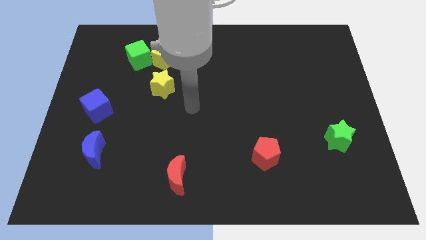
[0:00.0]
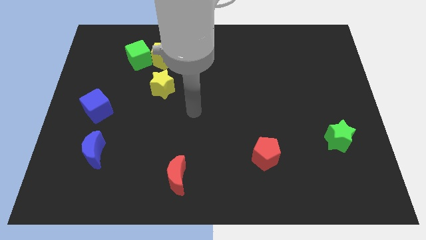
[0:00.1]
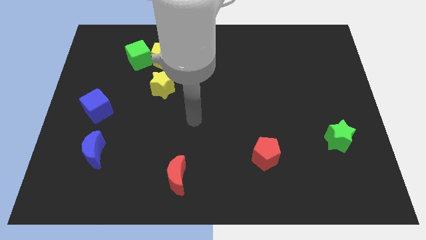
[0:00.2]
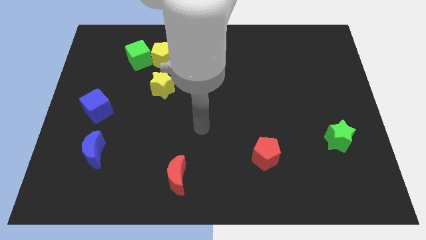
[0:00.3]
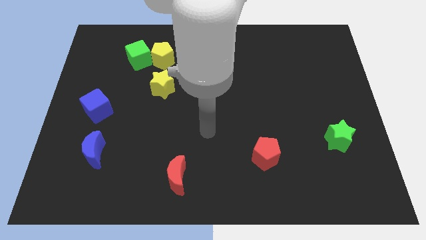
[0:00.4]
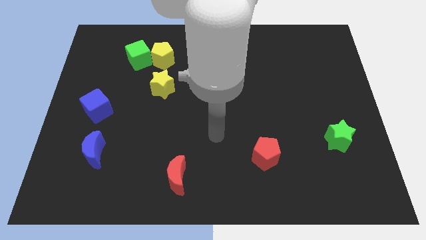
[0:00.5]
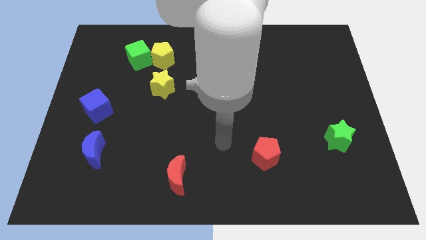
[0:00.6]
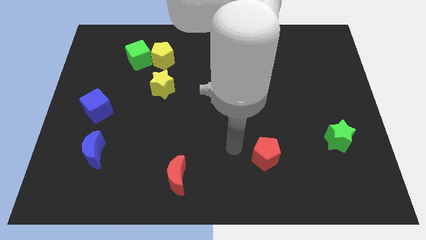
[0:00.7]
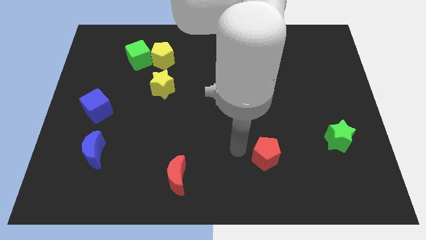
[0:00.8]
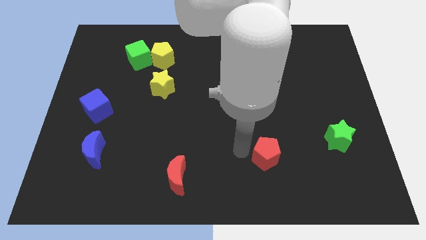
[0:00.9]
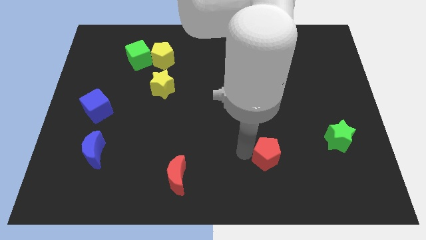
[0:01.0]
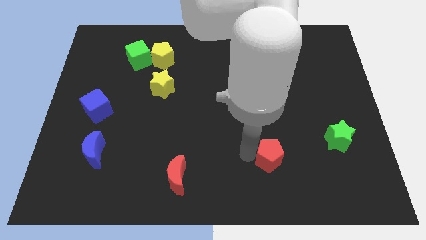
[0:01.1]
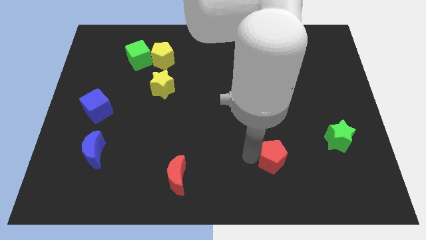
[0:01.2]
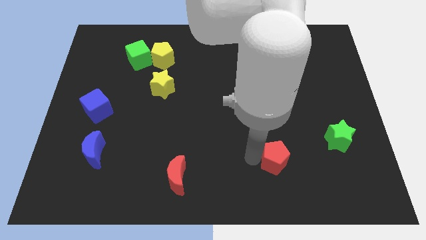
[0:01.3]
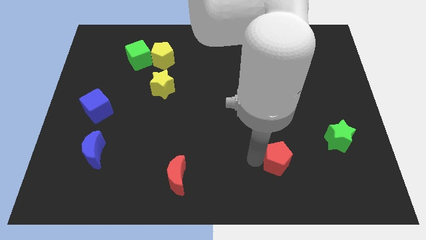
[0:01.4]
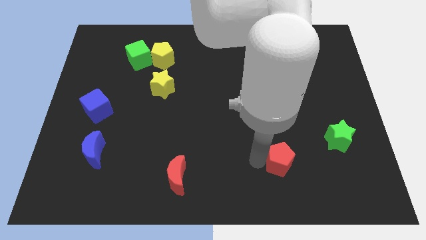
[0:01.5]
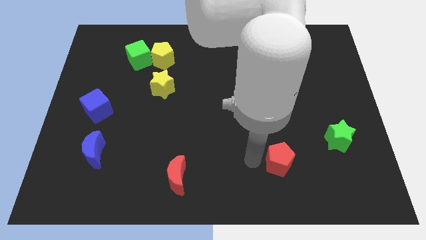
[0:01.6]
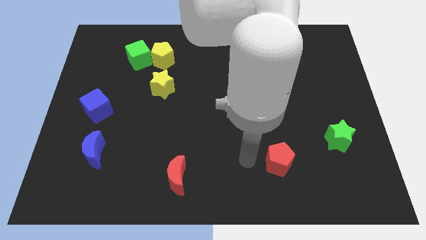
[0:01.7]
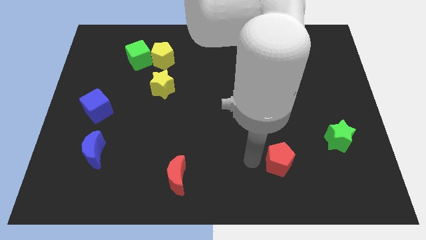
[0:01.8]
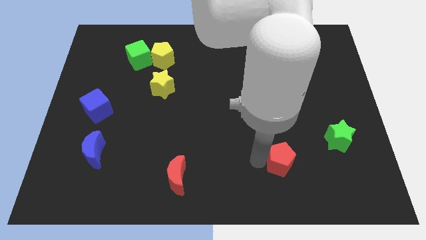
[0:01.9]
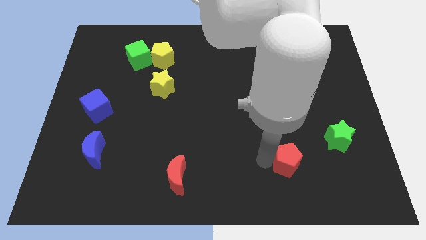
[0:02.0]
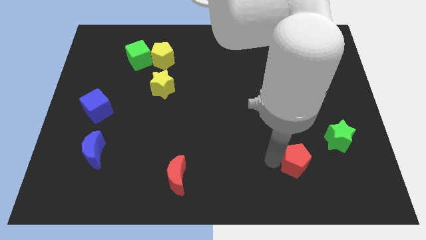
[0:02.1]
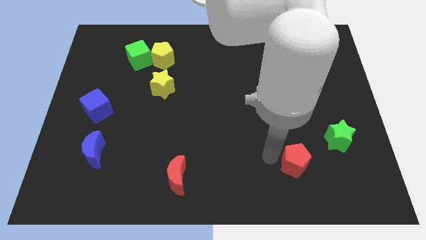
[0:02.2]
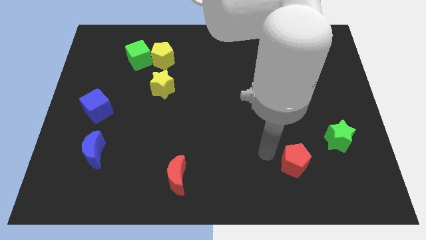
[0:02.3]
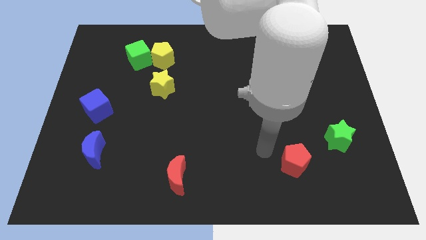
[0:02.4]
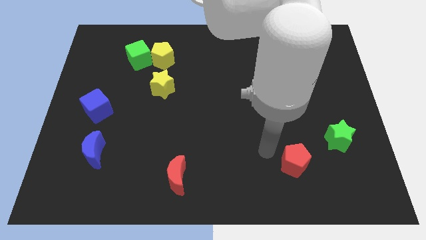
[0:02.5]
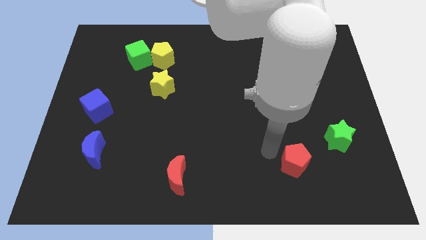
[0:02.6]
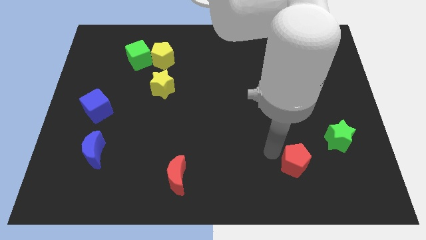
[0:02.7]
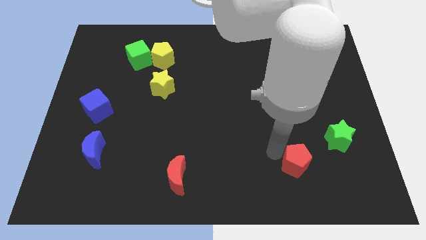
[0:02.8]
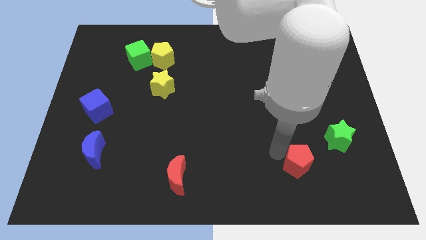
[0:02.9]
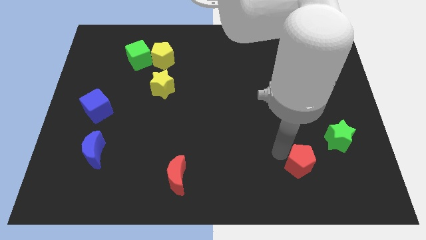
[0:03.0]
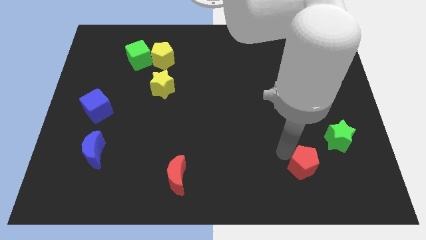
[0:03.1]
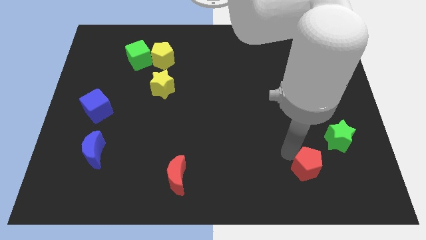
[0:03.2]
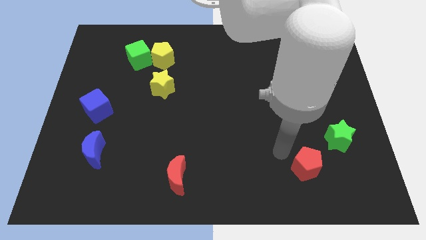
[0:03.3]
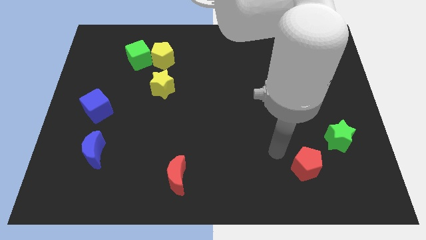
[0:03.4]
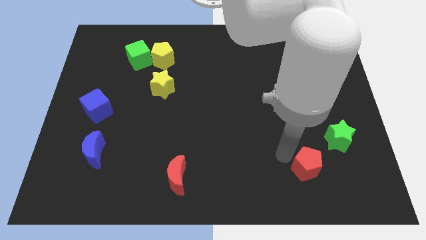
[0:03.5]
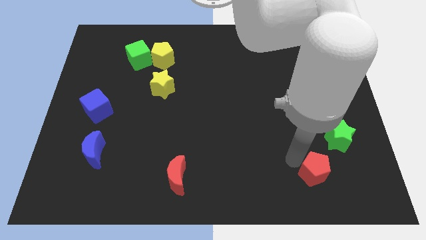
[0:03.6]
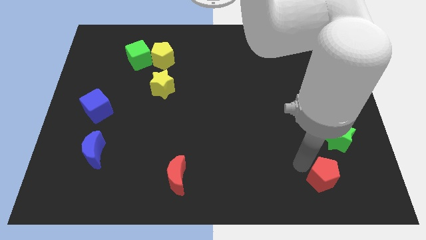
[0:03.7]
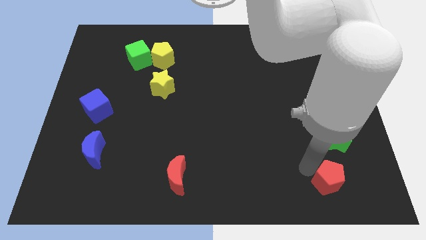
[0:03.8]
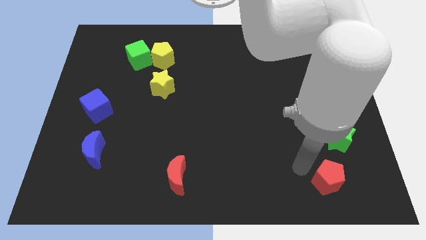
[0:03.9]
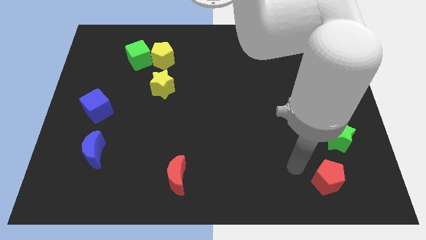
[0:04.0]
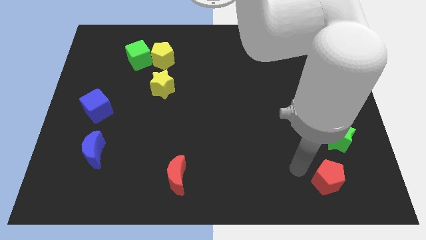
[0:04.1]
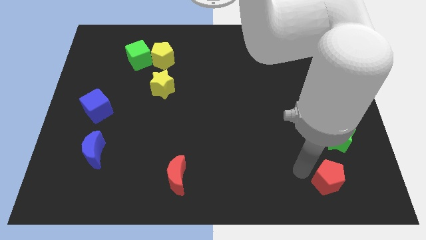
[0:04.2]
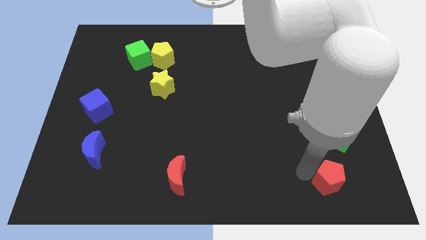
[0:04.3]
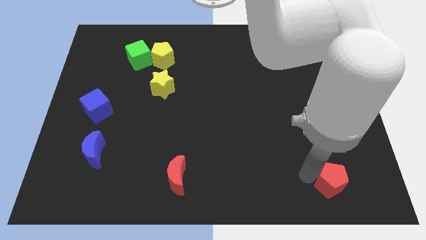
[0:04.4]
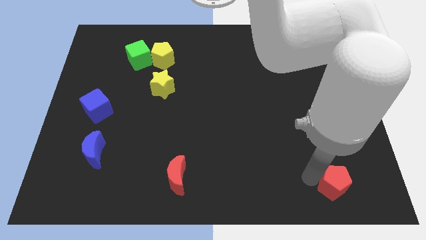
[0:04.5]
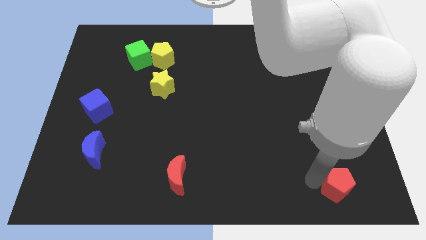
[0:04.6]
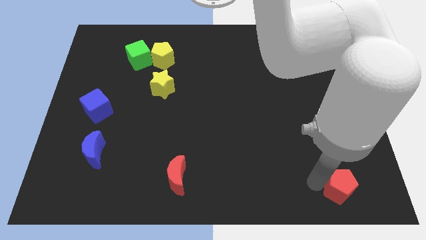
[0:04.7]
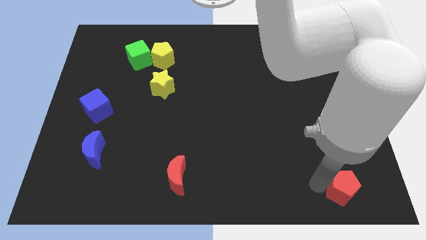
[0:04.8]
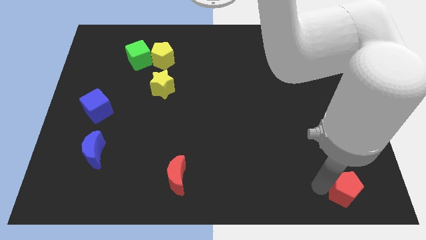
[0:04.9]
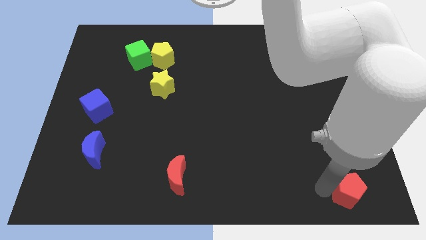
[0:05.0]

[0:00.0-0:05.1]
slide the red pentagon to the bottom right corner

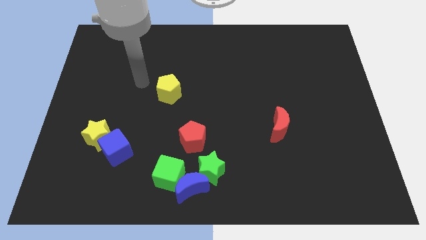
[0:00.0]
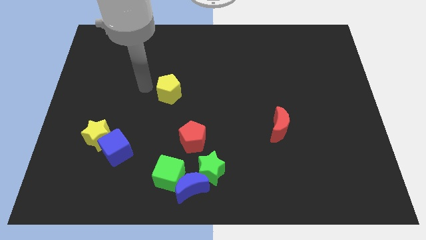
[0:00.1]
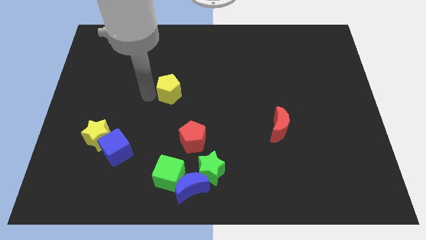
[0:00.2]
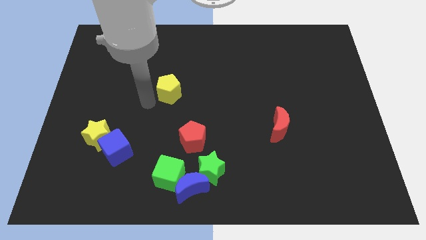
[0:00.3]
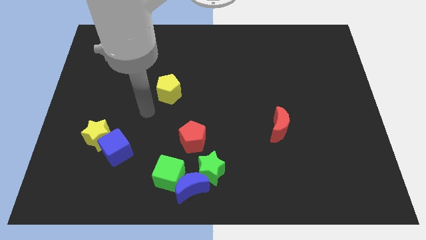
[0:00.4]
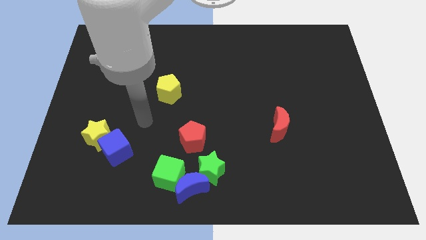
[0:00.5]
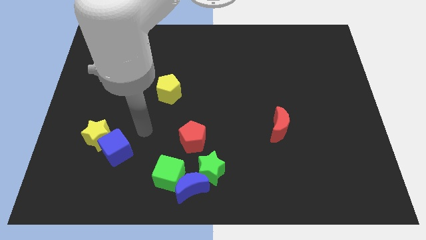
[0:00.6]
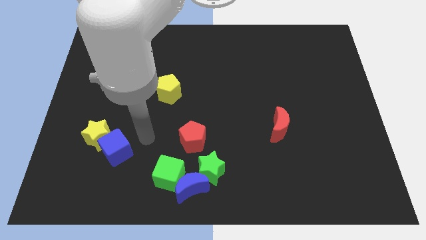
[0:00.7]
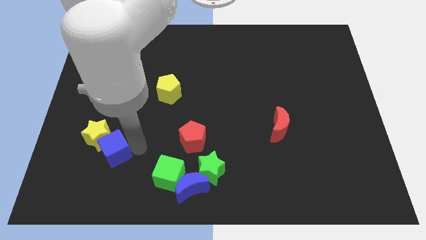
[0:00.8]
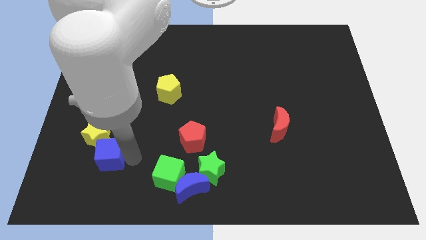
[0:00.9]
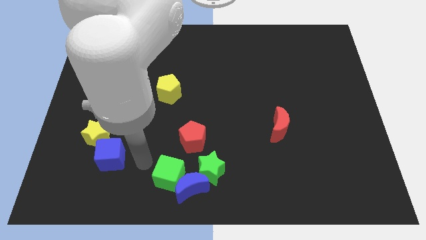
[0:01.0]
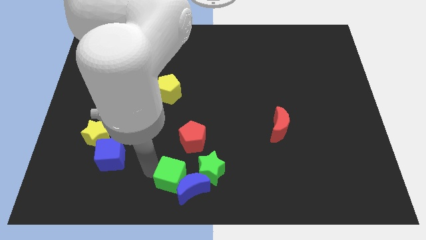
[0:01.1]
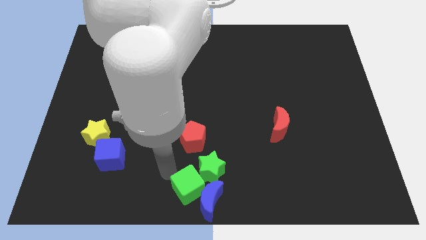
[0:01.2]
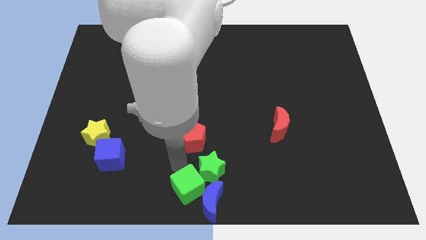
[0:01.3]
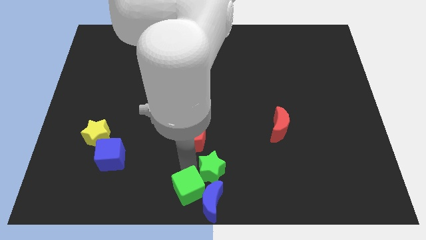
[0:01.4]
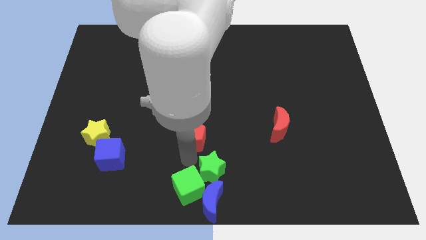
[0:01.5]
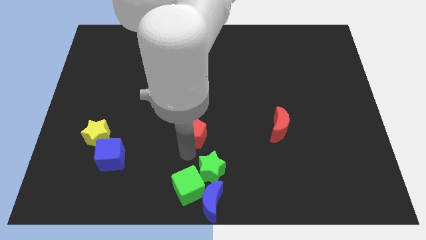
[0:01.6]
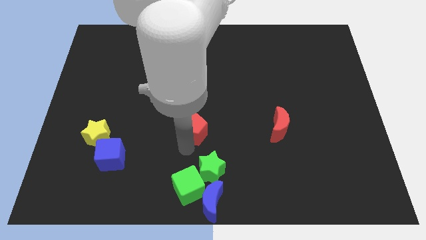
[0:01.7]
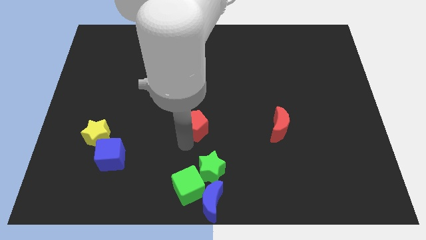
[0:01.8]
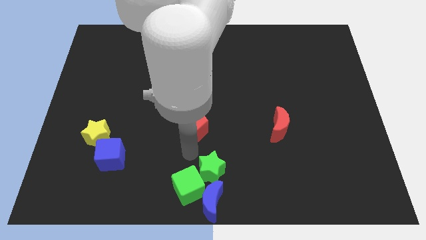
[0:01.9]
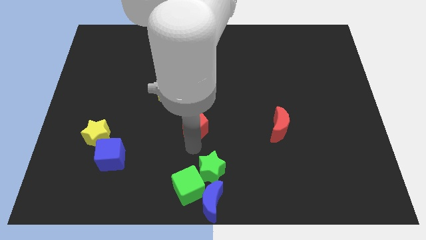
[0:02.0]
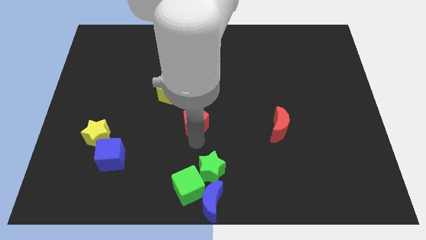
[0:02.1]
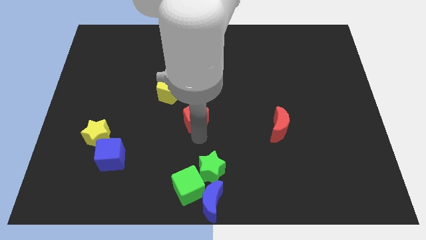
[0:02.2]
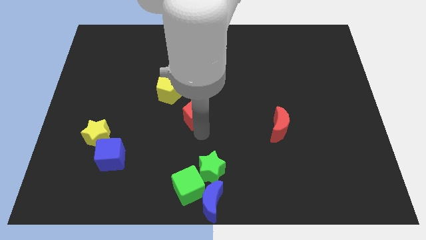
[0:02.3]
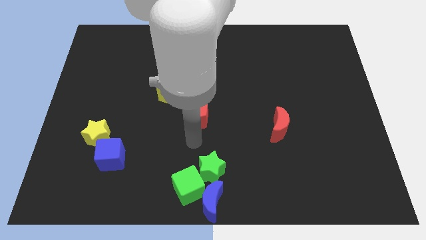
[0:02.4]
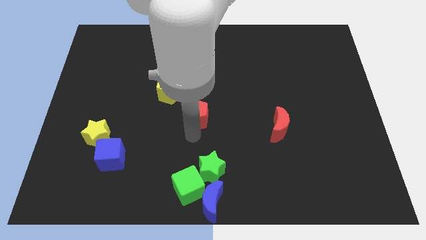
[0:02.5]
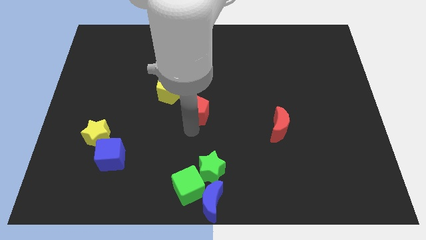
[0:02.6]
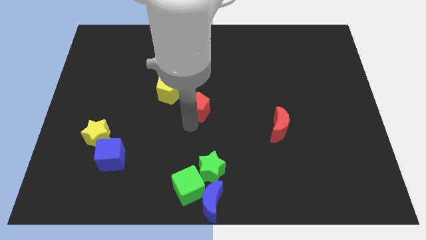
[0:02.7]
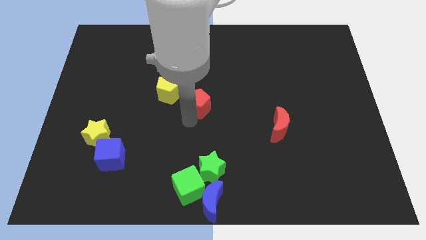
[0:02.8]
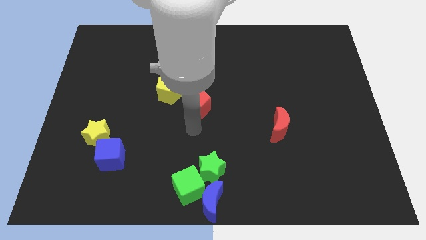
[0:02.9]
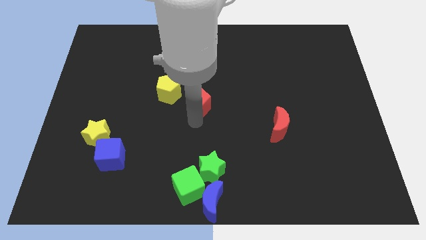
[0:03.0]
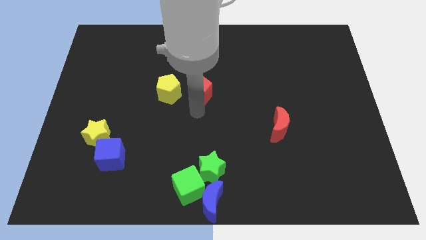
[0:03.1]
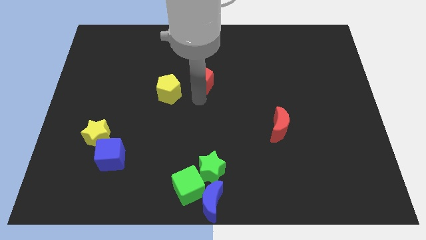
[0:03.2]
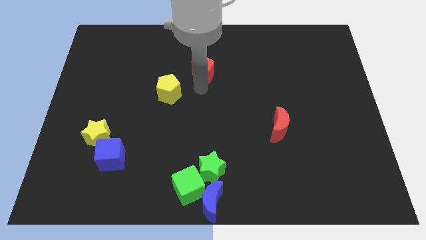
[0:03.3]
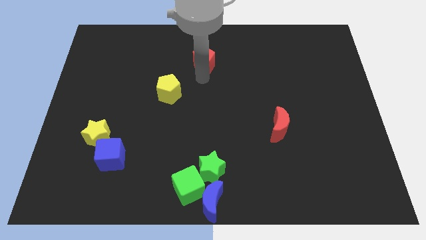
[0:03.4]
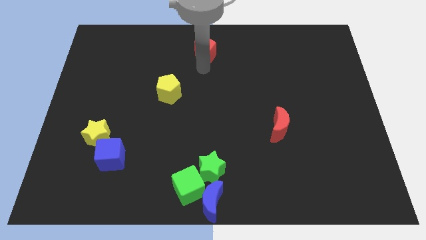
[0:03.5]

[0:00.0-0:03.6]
put the red pentagon to the towards your base
